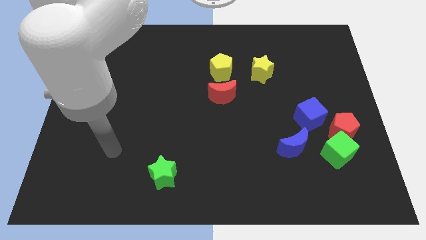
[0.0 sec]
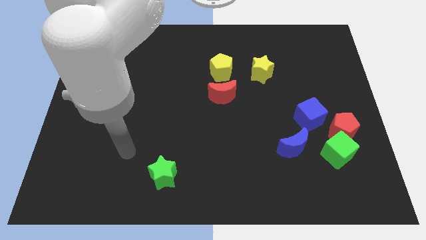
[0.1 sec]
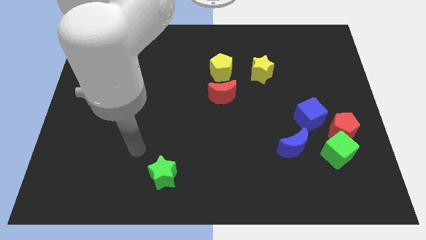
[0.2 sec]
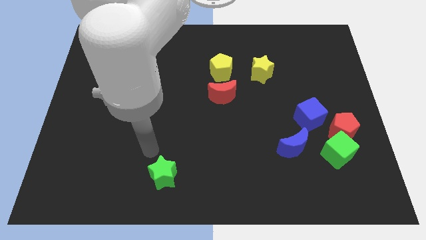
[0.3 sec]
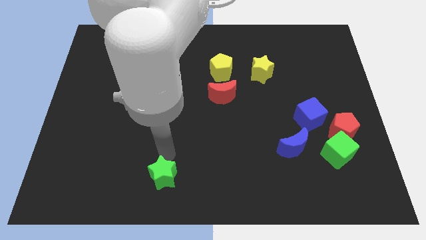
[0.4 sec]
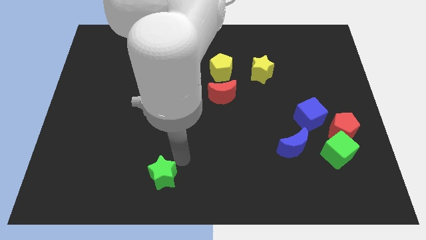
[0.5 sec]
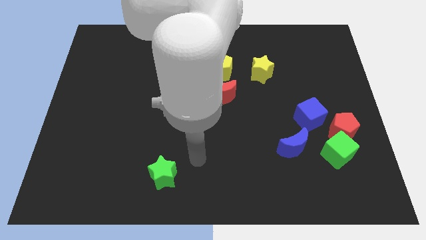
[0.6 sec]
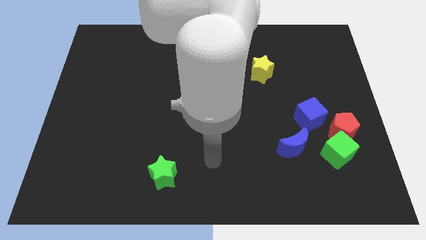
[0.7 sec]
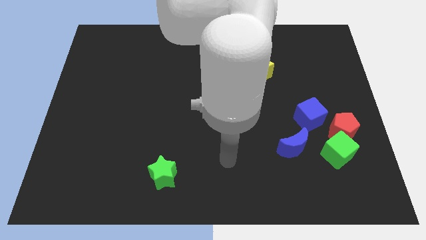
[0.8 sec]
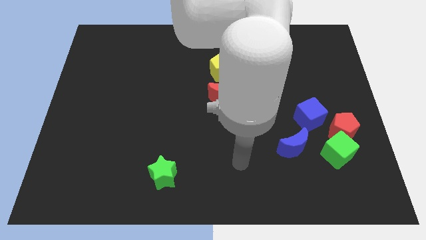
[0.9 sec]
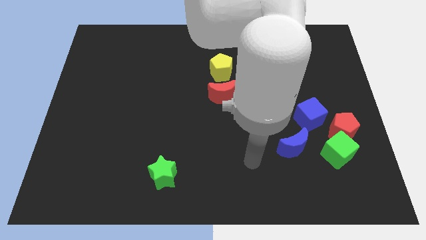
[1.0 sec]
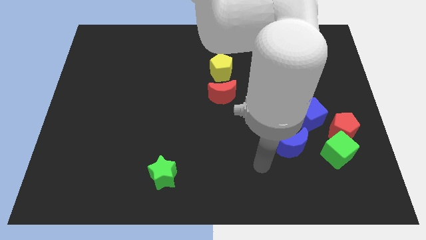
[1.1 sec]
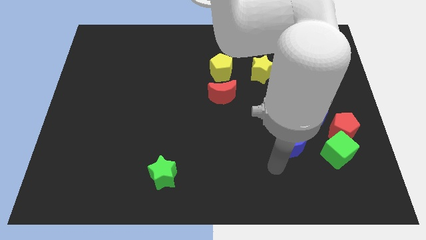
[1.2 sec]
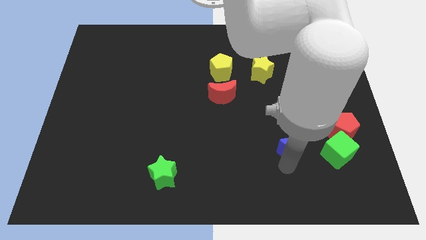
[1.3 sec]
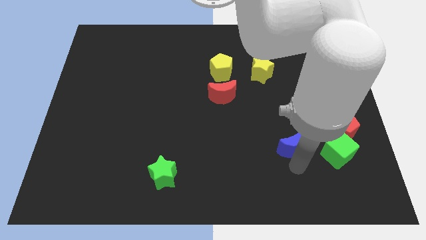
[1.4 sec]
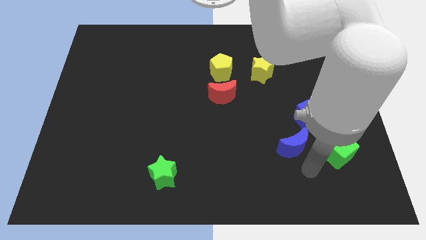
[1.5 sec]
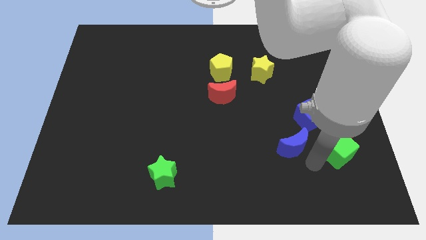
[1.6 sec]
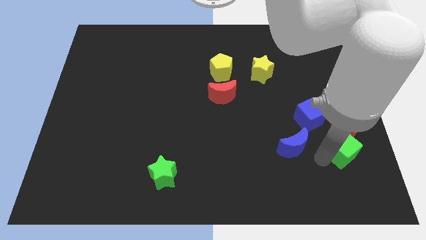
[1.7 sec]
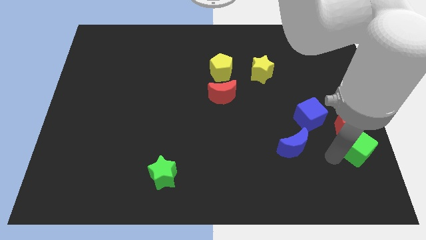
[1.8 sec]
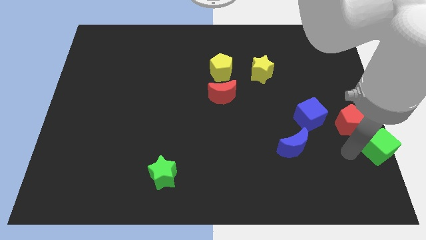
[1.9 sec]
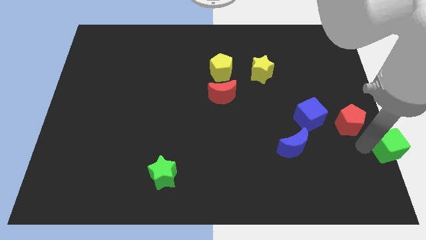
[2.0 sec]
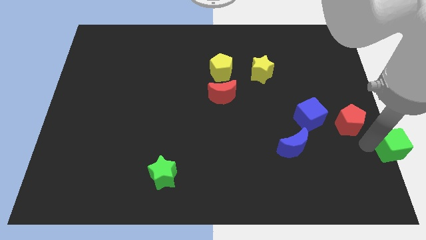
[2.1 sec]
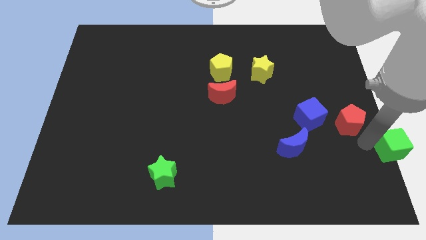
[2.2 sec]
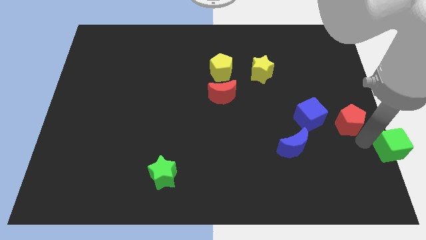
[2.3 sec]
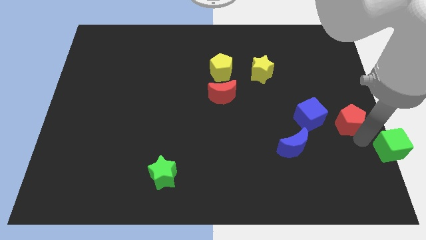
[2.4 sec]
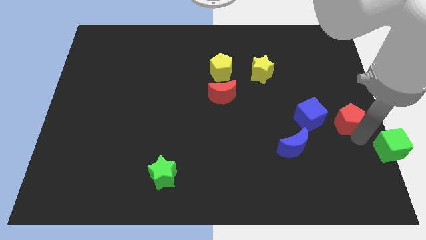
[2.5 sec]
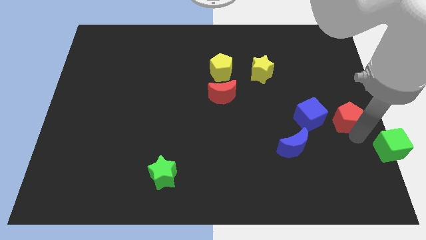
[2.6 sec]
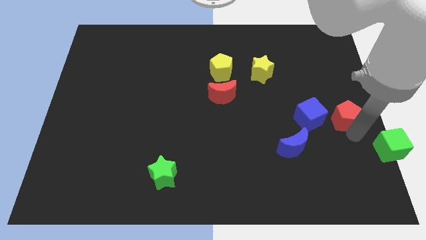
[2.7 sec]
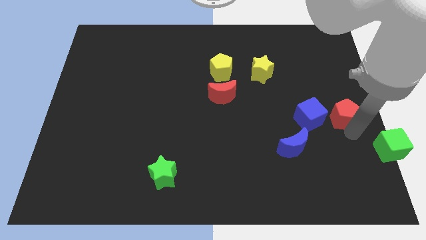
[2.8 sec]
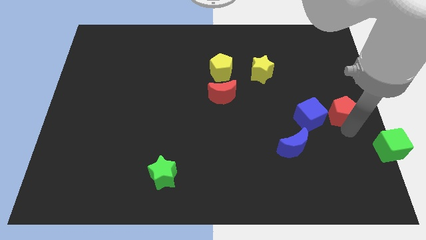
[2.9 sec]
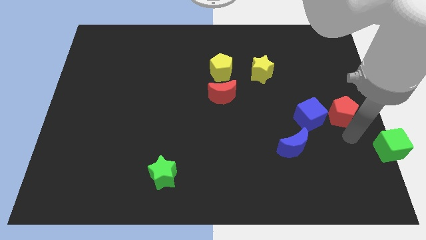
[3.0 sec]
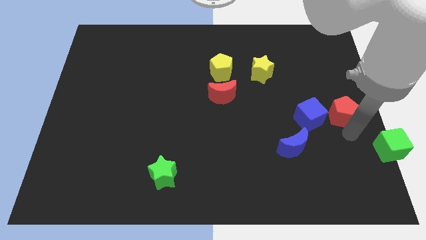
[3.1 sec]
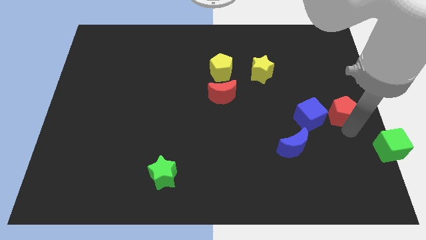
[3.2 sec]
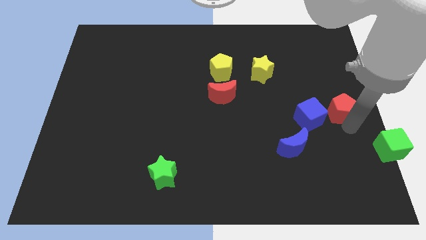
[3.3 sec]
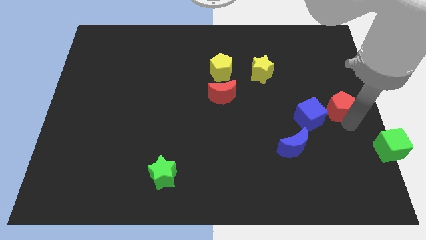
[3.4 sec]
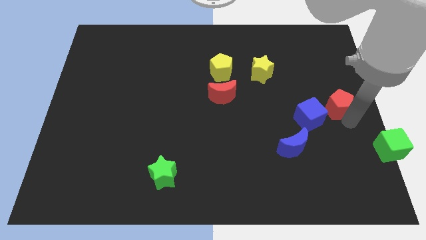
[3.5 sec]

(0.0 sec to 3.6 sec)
slightly push the red pentagon upwards

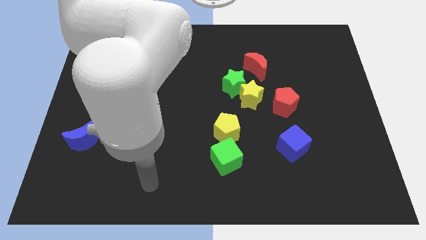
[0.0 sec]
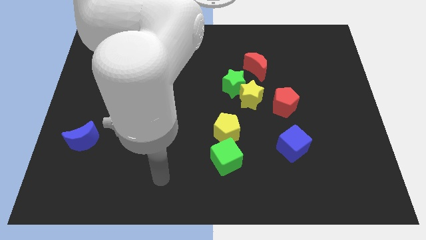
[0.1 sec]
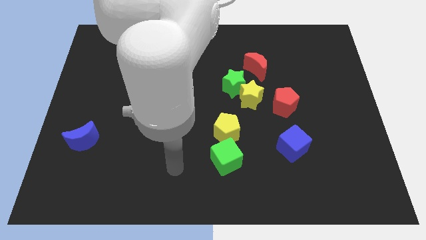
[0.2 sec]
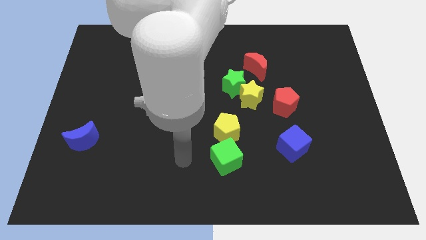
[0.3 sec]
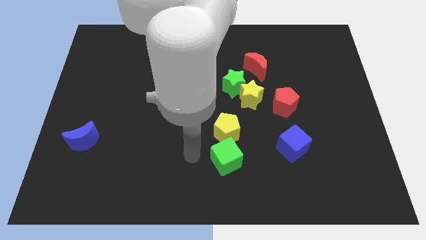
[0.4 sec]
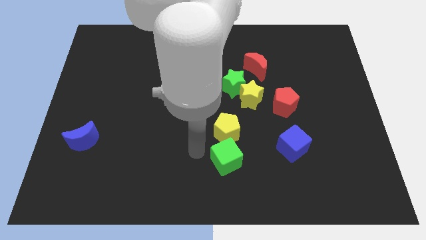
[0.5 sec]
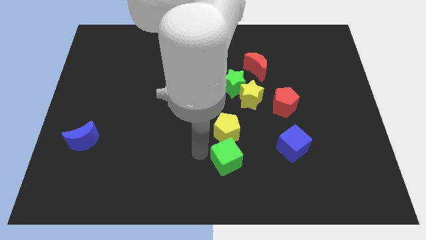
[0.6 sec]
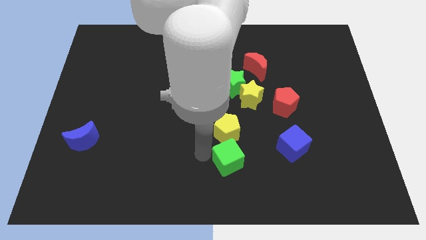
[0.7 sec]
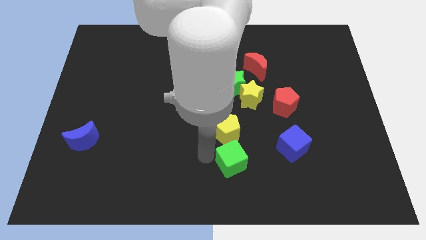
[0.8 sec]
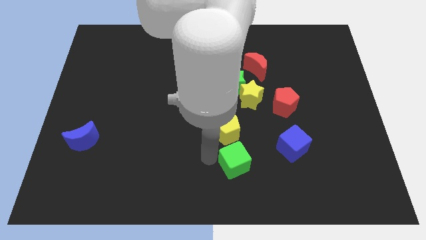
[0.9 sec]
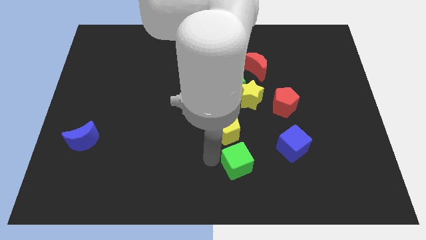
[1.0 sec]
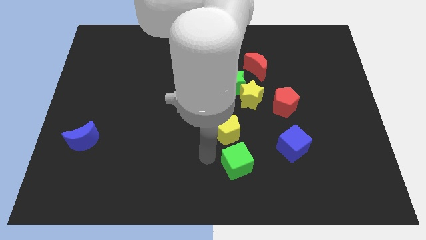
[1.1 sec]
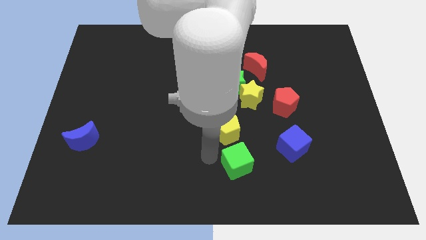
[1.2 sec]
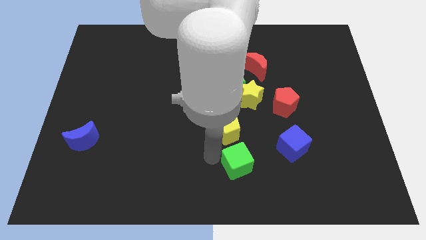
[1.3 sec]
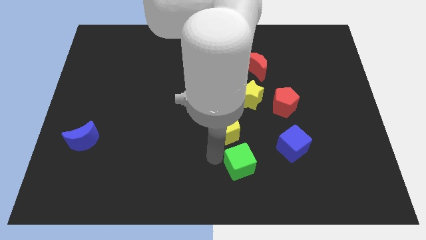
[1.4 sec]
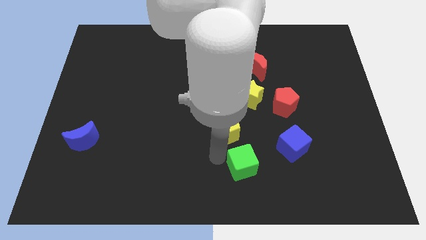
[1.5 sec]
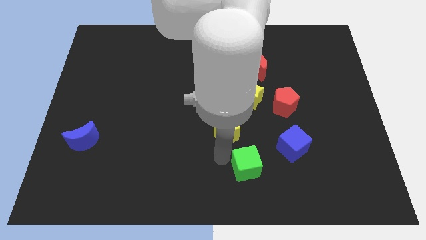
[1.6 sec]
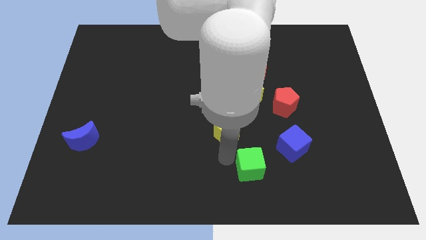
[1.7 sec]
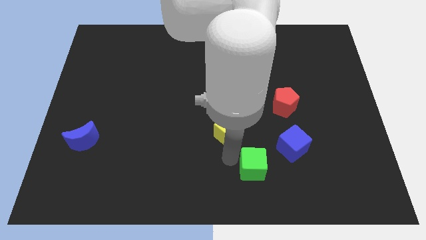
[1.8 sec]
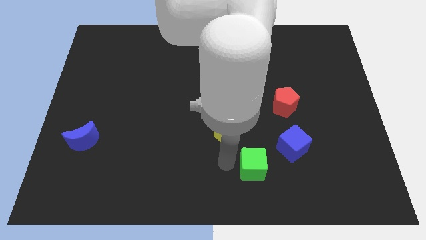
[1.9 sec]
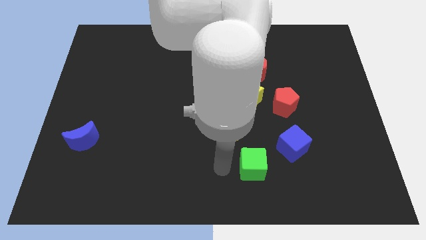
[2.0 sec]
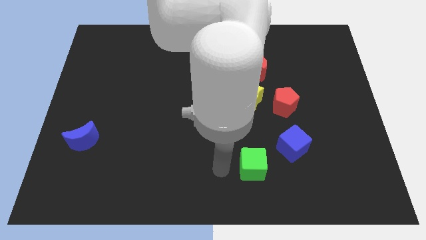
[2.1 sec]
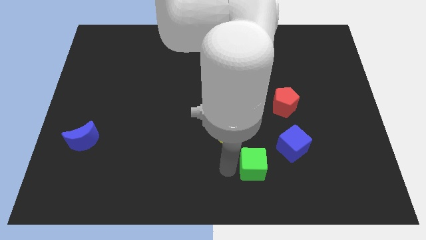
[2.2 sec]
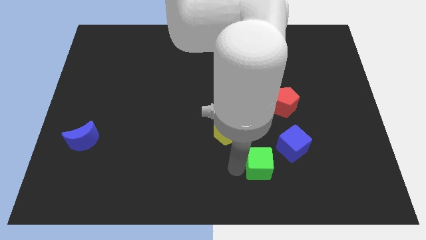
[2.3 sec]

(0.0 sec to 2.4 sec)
push the green cube to the right a little

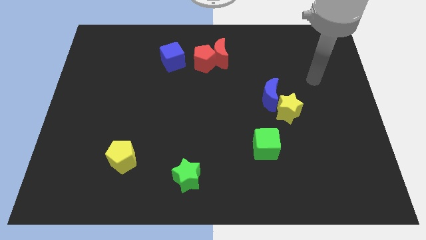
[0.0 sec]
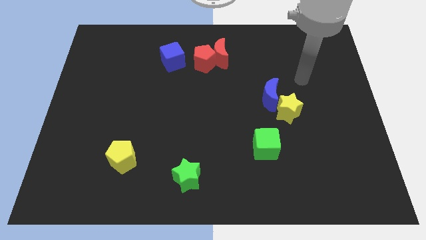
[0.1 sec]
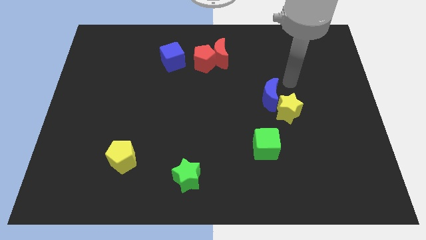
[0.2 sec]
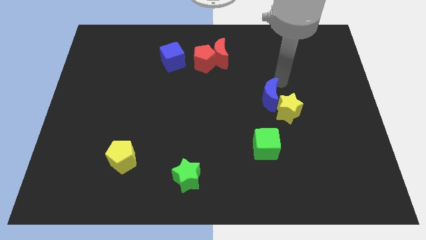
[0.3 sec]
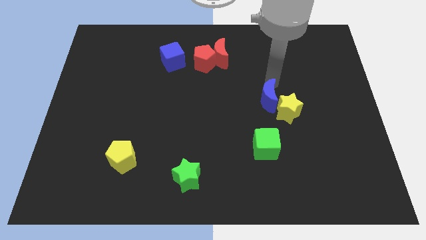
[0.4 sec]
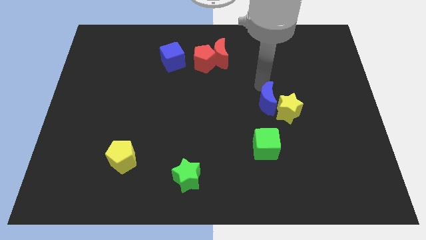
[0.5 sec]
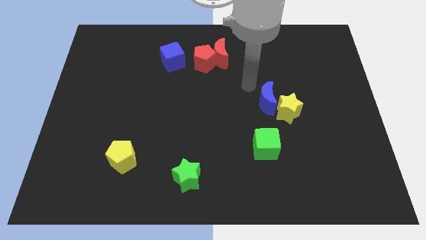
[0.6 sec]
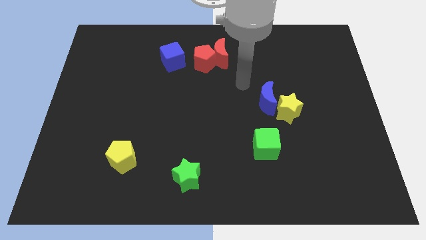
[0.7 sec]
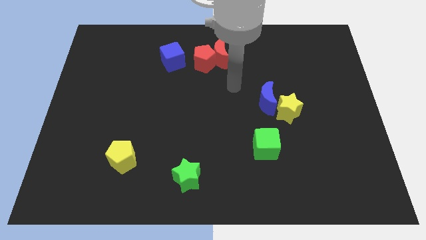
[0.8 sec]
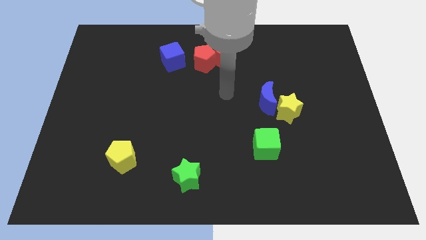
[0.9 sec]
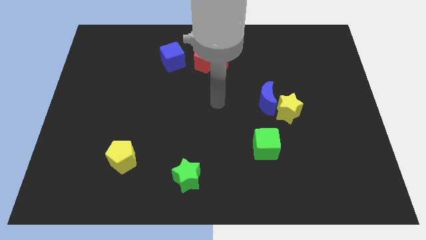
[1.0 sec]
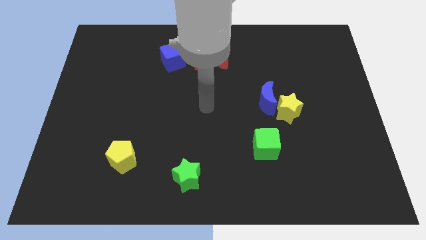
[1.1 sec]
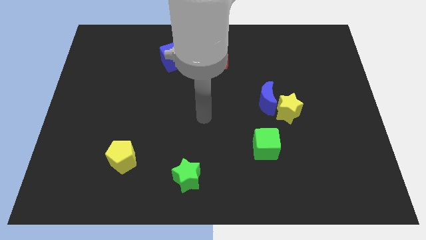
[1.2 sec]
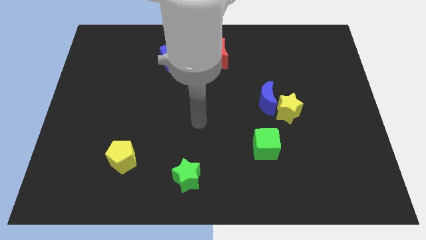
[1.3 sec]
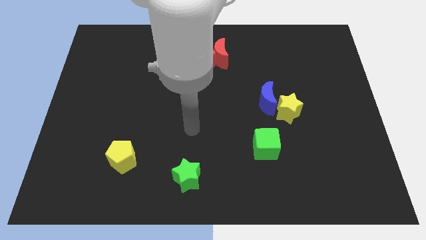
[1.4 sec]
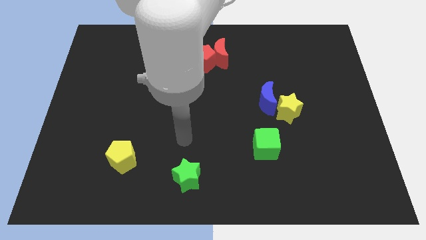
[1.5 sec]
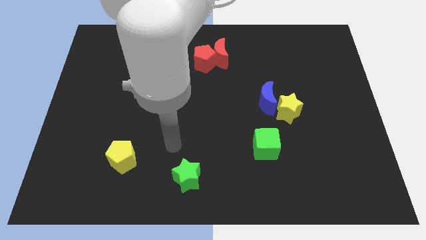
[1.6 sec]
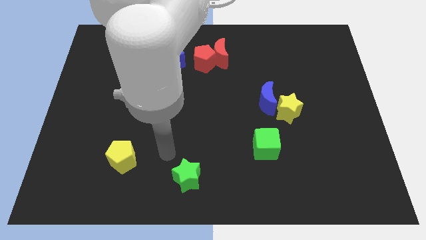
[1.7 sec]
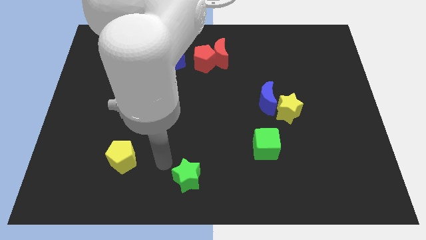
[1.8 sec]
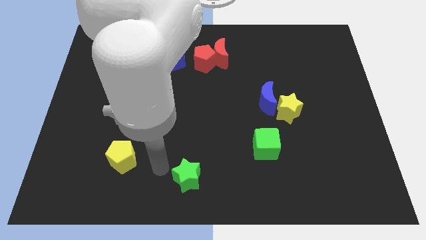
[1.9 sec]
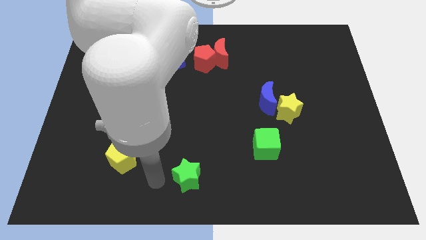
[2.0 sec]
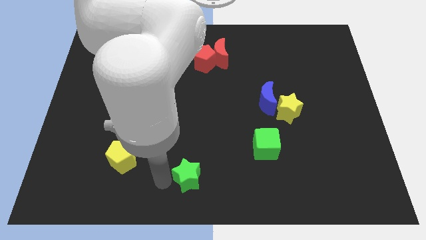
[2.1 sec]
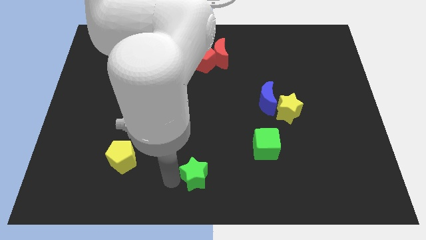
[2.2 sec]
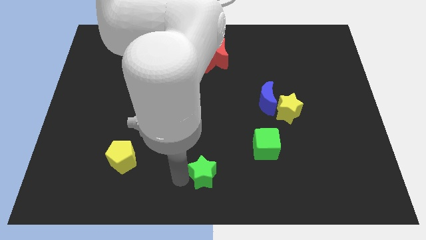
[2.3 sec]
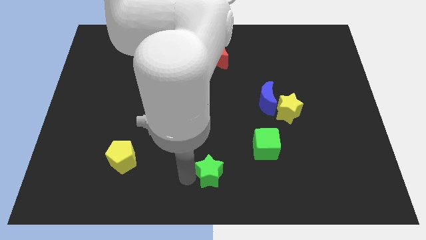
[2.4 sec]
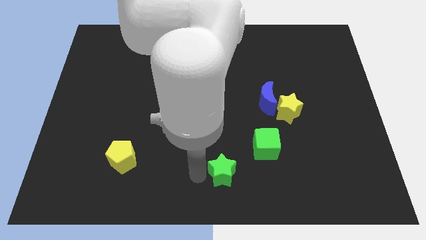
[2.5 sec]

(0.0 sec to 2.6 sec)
push the green star right somewhat
